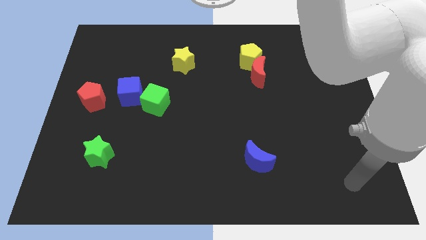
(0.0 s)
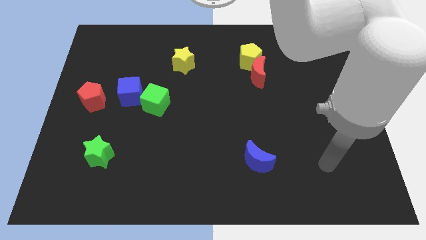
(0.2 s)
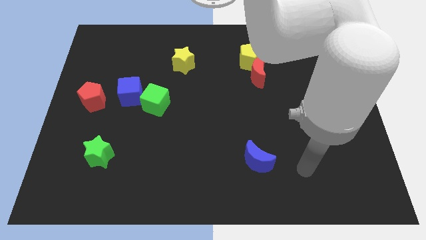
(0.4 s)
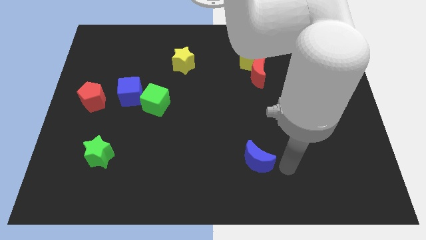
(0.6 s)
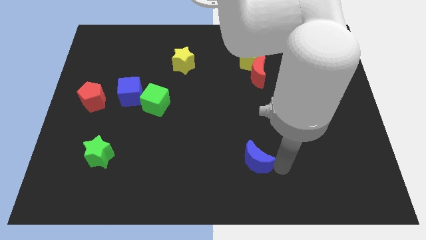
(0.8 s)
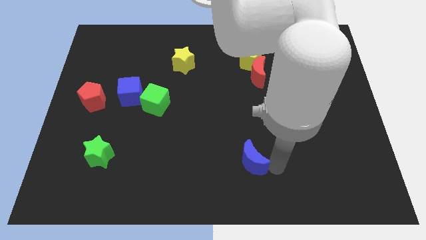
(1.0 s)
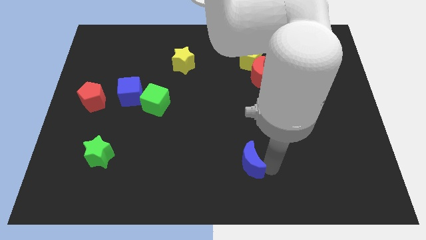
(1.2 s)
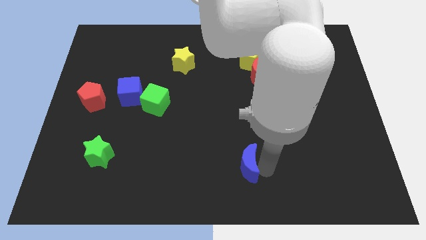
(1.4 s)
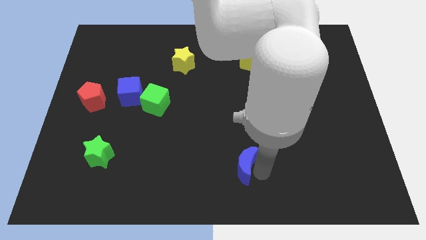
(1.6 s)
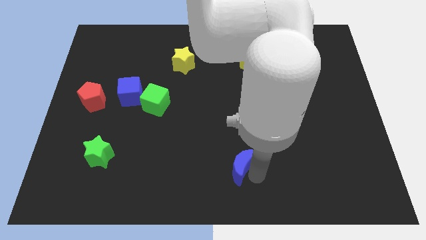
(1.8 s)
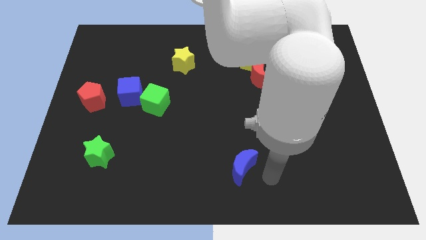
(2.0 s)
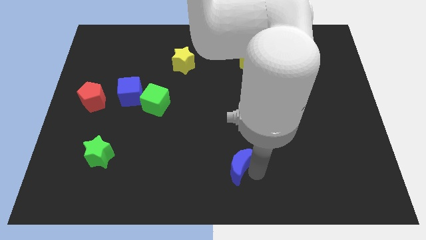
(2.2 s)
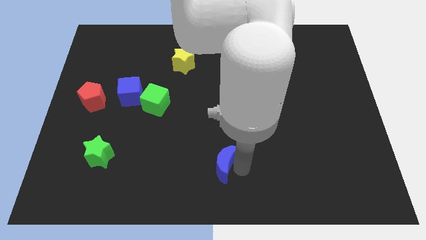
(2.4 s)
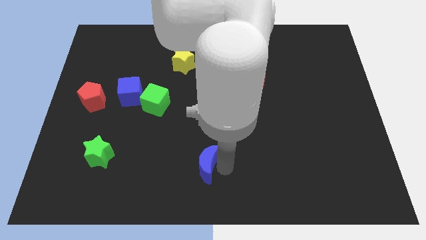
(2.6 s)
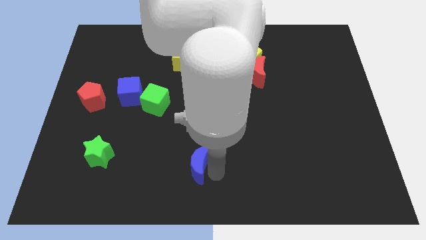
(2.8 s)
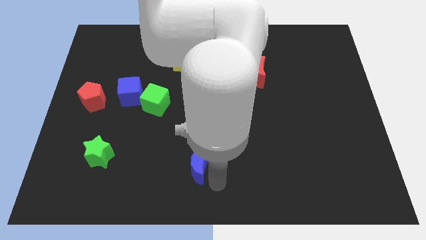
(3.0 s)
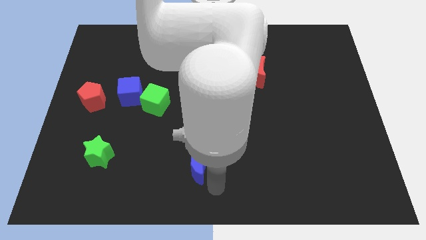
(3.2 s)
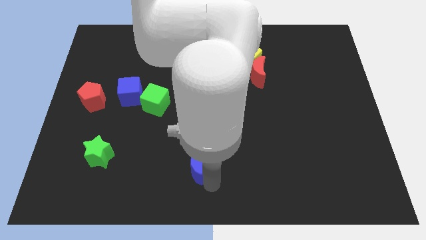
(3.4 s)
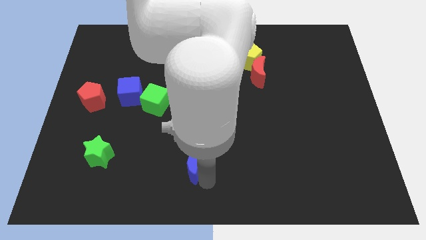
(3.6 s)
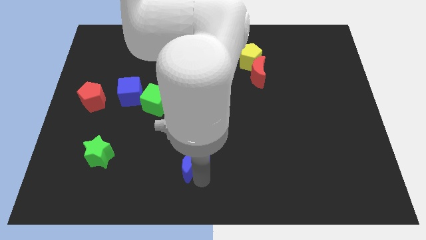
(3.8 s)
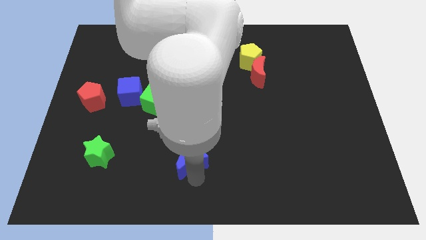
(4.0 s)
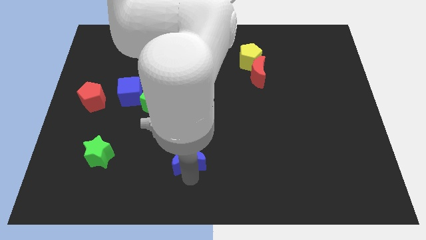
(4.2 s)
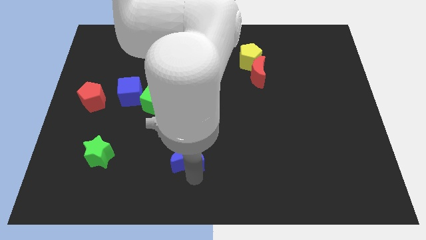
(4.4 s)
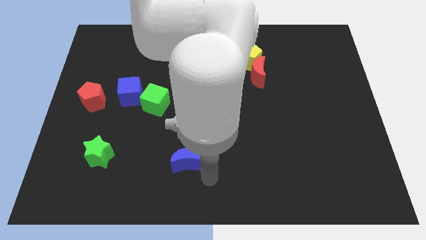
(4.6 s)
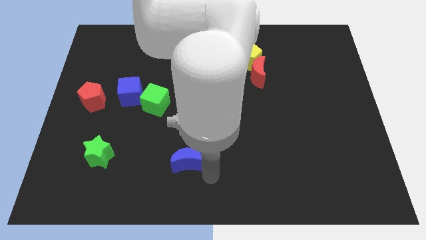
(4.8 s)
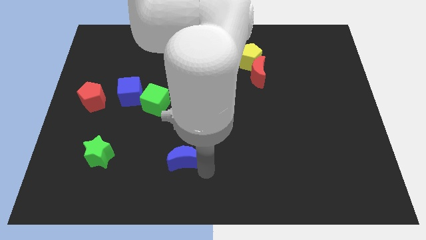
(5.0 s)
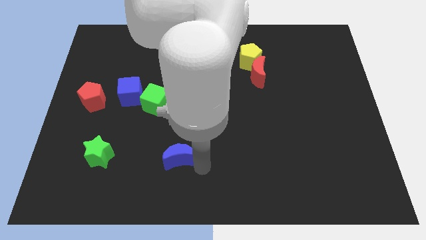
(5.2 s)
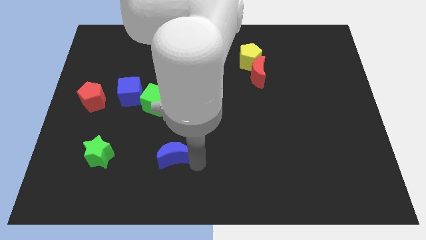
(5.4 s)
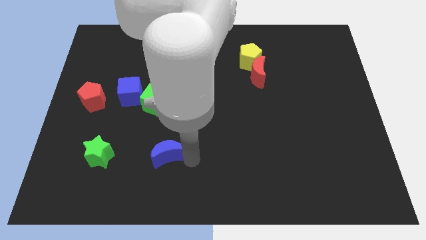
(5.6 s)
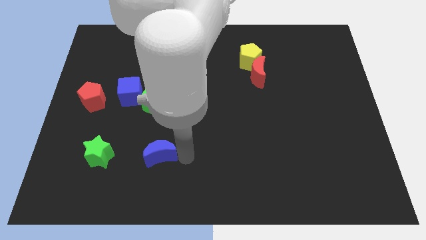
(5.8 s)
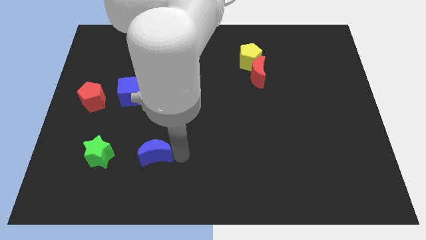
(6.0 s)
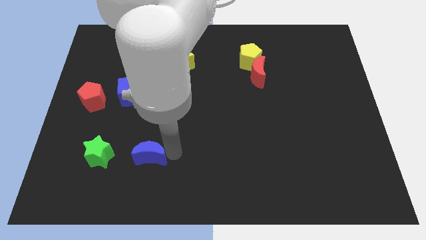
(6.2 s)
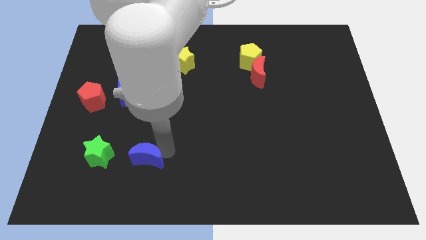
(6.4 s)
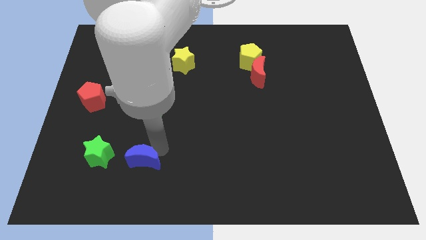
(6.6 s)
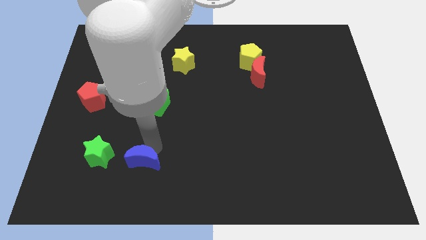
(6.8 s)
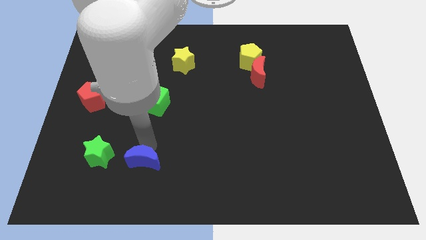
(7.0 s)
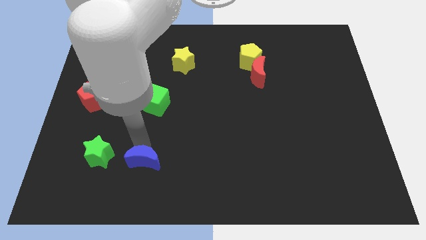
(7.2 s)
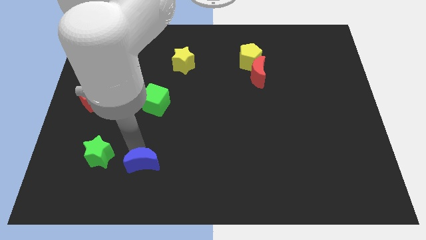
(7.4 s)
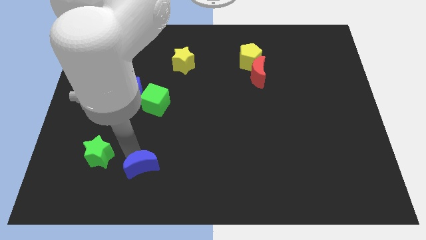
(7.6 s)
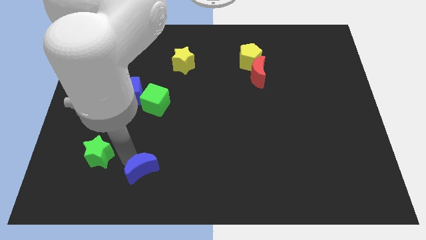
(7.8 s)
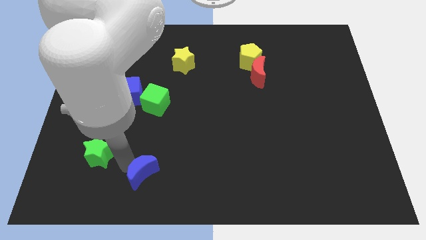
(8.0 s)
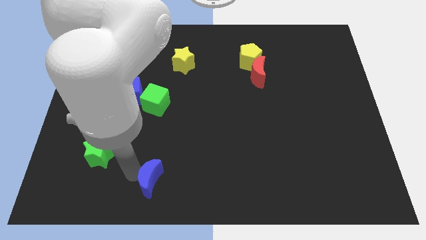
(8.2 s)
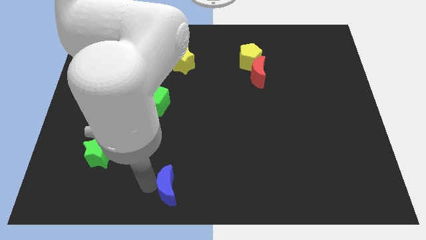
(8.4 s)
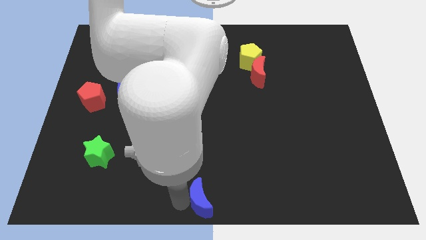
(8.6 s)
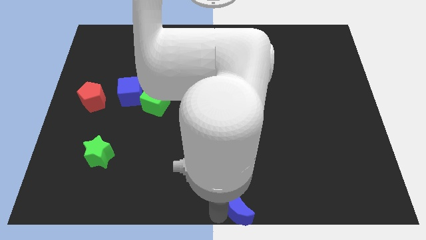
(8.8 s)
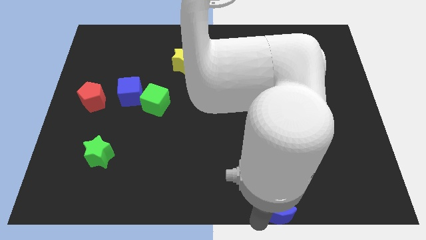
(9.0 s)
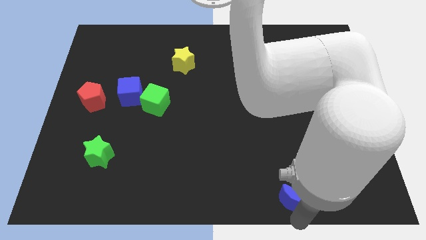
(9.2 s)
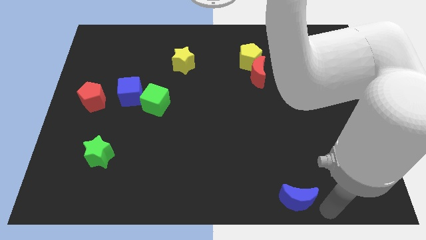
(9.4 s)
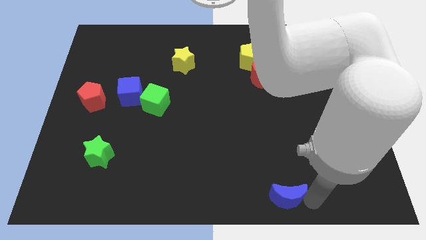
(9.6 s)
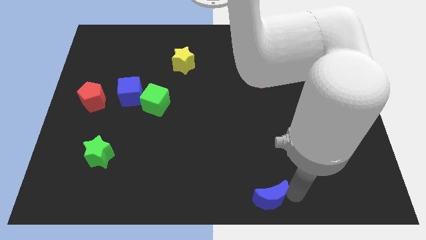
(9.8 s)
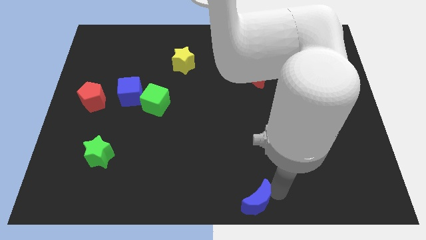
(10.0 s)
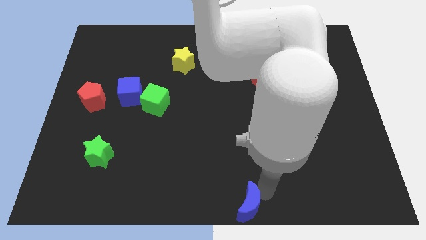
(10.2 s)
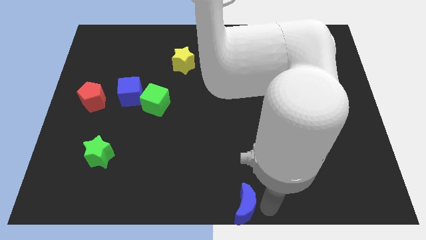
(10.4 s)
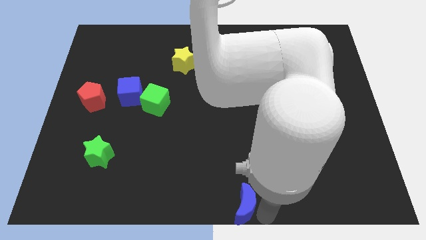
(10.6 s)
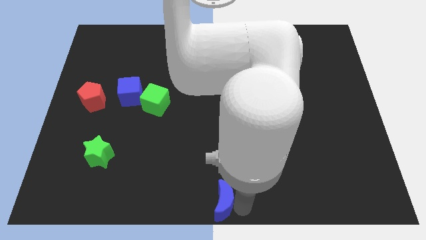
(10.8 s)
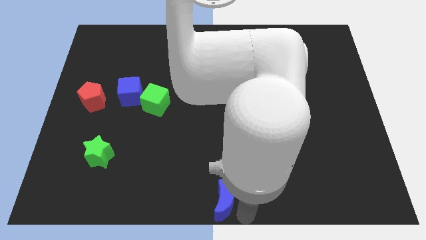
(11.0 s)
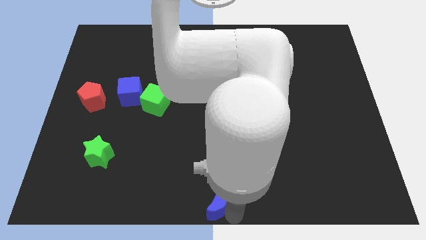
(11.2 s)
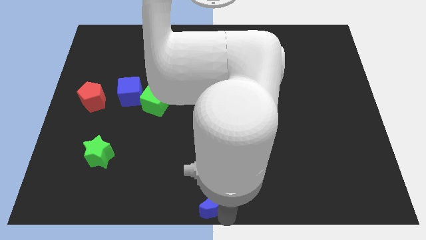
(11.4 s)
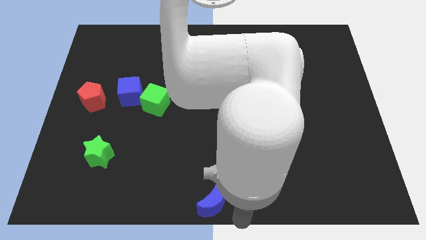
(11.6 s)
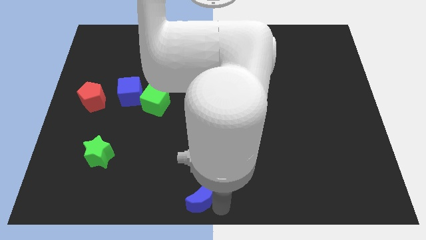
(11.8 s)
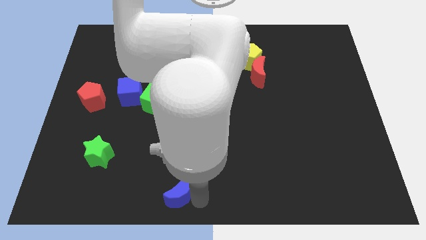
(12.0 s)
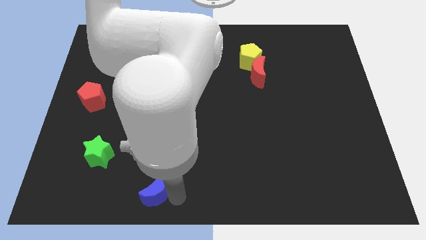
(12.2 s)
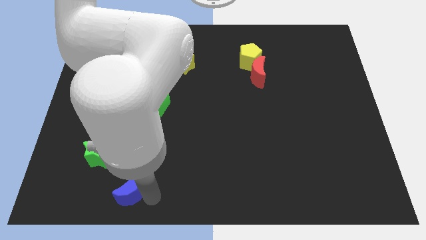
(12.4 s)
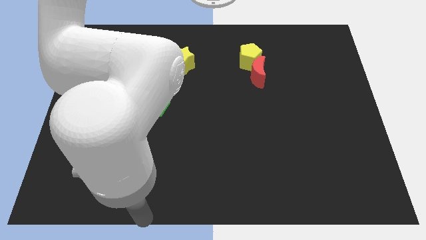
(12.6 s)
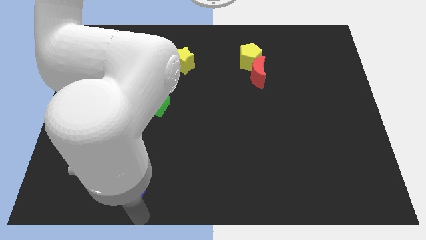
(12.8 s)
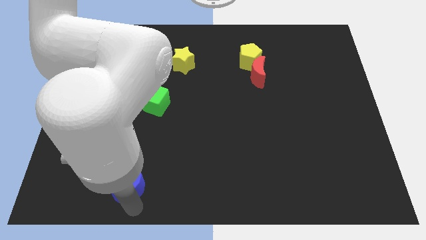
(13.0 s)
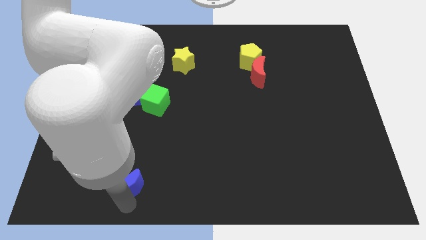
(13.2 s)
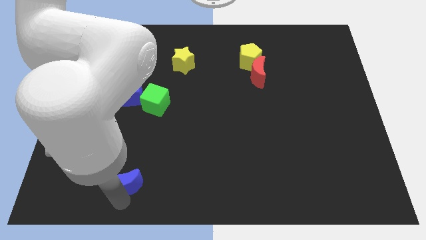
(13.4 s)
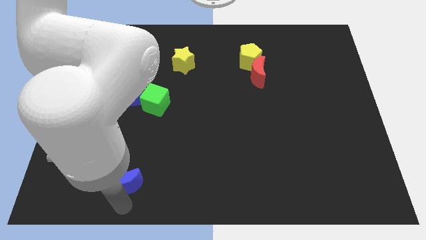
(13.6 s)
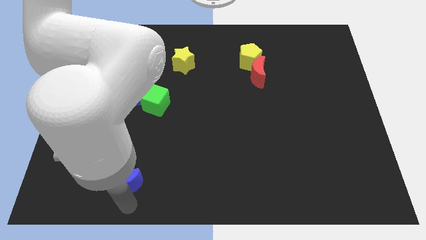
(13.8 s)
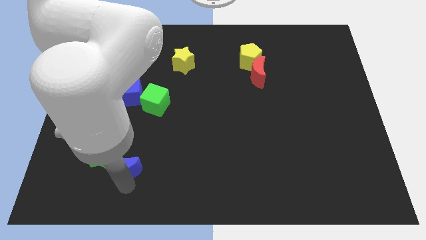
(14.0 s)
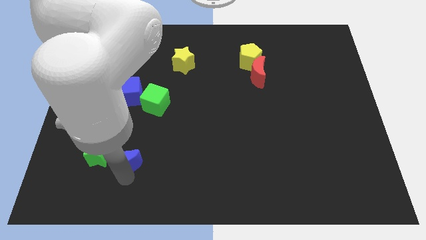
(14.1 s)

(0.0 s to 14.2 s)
push the blue moon to the green star
